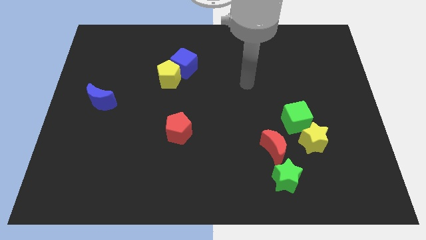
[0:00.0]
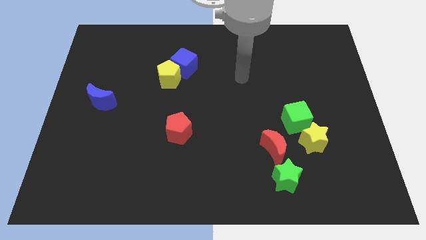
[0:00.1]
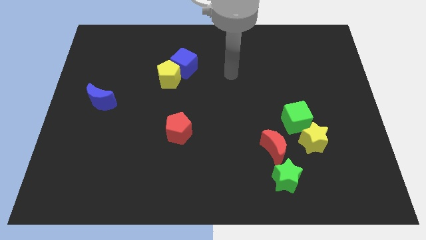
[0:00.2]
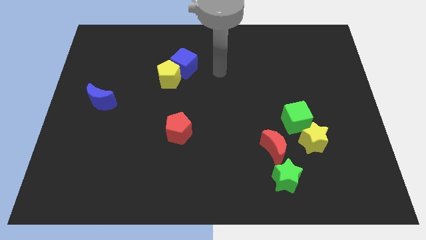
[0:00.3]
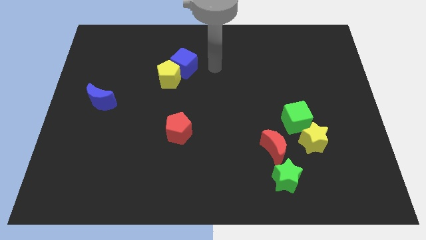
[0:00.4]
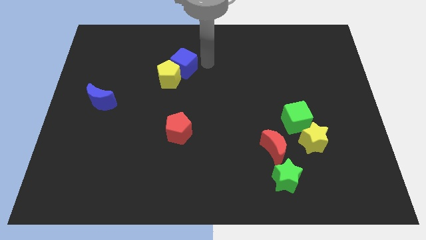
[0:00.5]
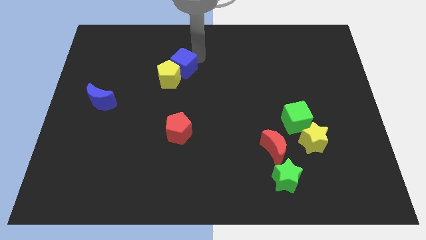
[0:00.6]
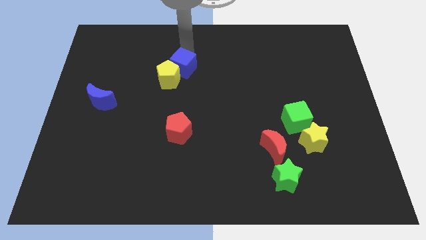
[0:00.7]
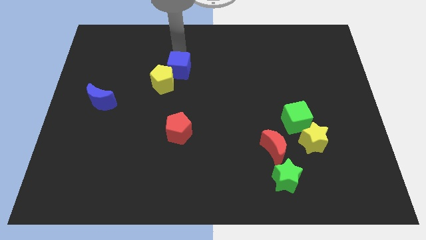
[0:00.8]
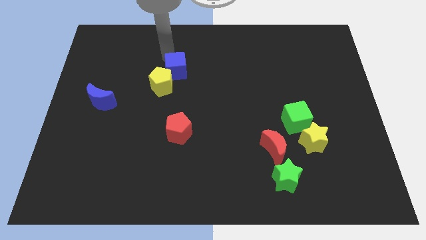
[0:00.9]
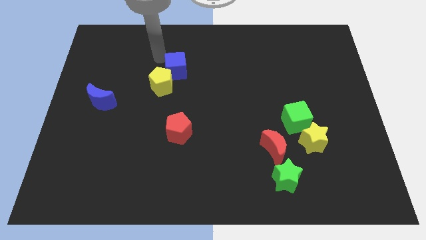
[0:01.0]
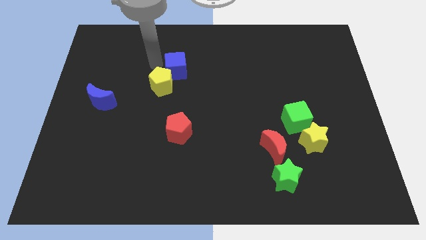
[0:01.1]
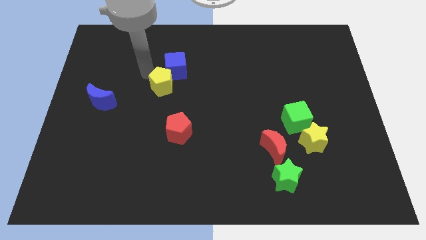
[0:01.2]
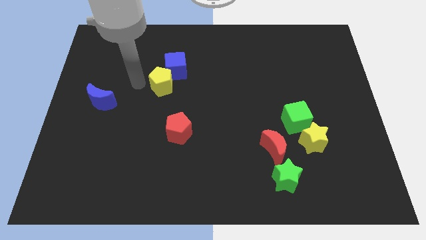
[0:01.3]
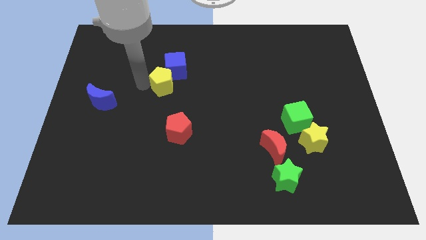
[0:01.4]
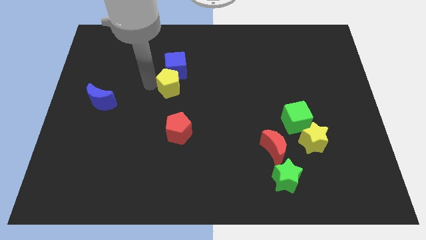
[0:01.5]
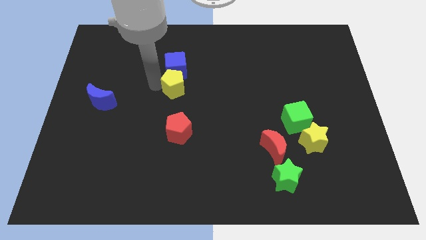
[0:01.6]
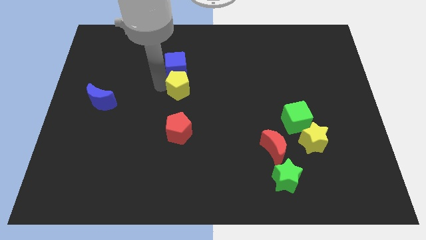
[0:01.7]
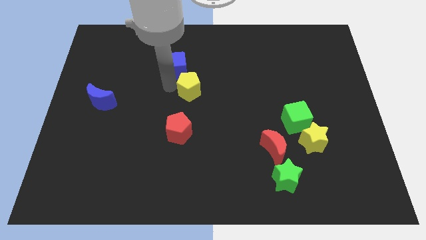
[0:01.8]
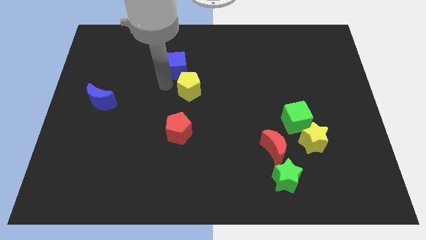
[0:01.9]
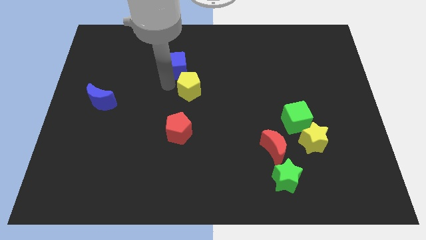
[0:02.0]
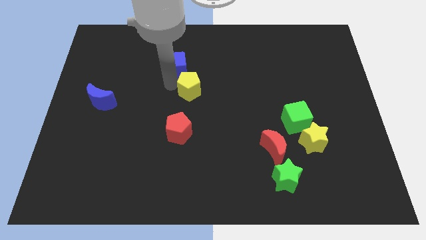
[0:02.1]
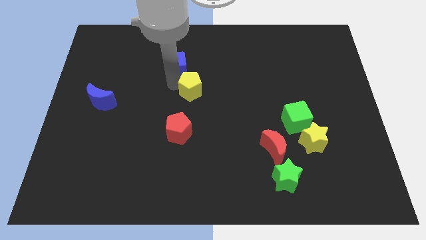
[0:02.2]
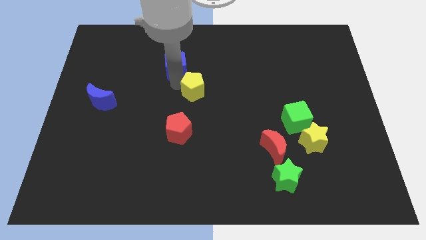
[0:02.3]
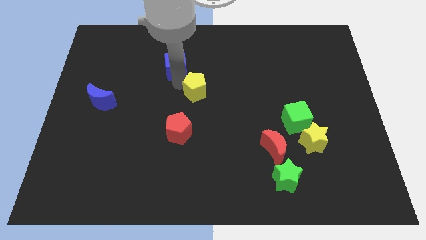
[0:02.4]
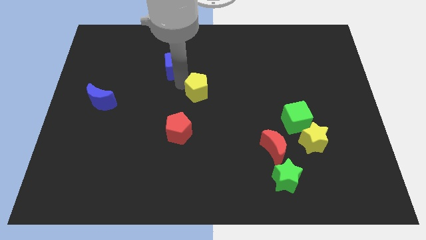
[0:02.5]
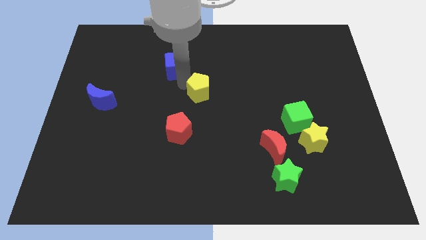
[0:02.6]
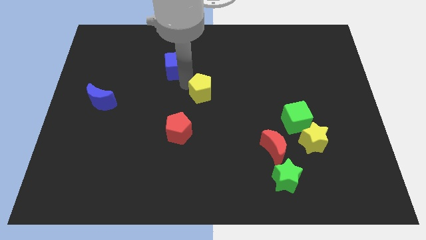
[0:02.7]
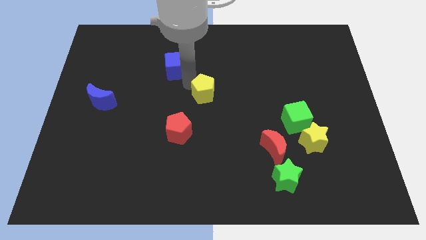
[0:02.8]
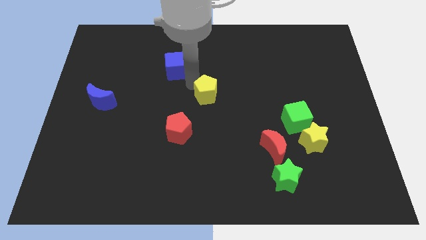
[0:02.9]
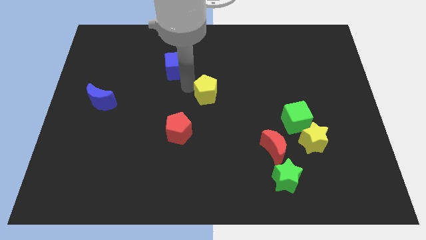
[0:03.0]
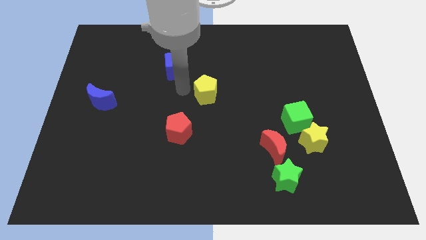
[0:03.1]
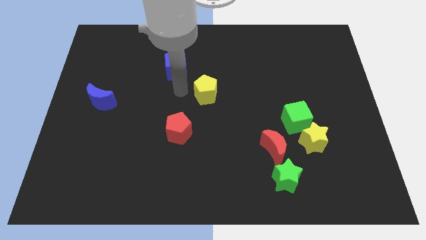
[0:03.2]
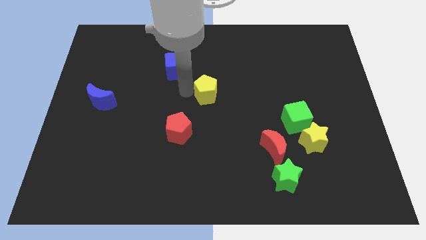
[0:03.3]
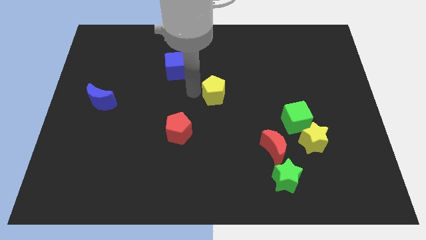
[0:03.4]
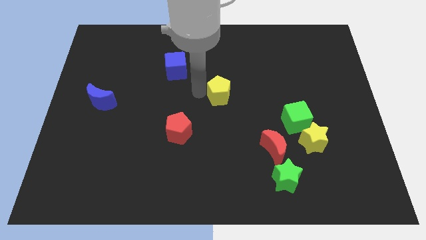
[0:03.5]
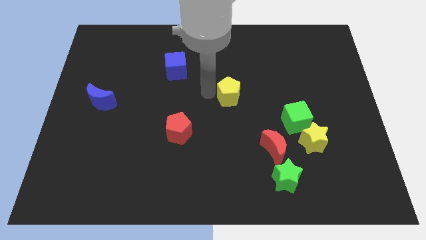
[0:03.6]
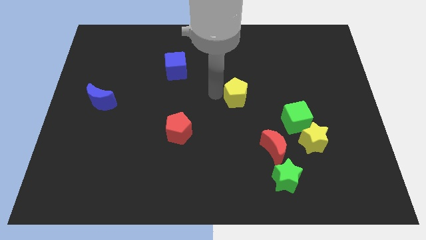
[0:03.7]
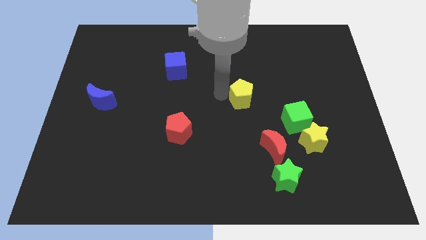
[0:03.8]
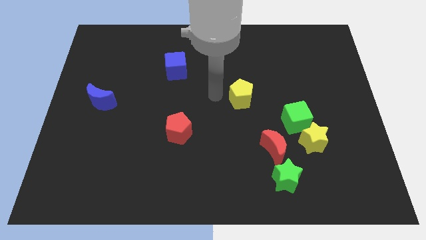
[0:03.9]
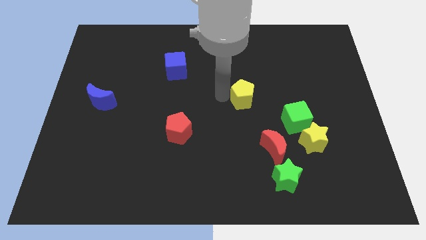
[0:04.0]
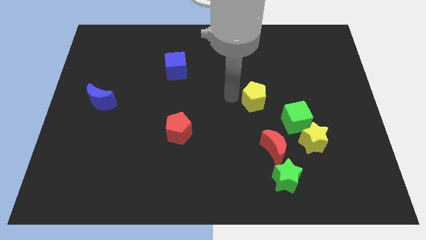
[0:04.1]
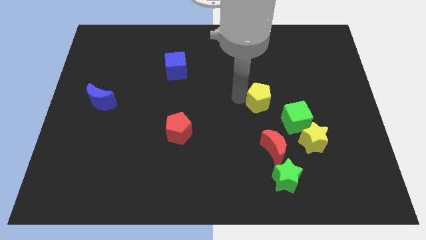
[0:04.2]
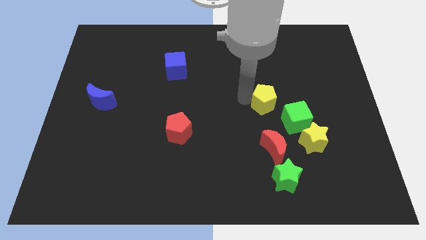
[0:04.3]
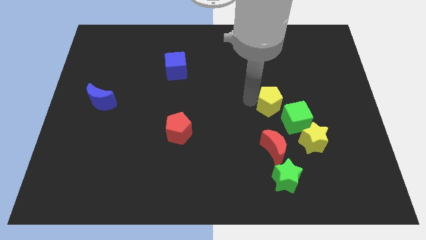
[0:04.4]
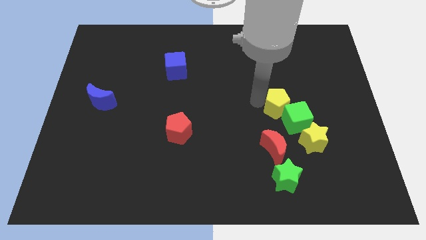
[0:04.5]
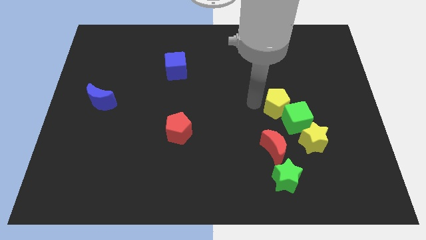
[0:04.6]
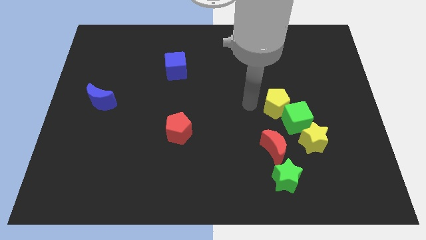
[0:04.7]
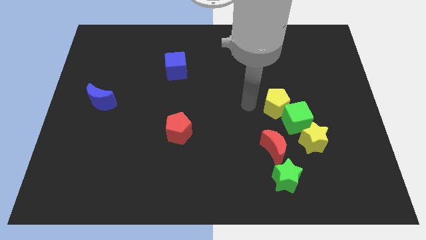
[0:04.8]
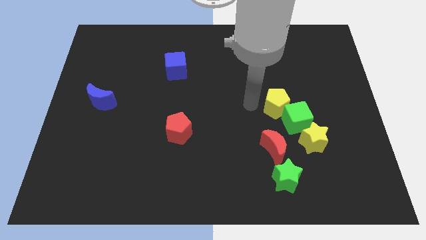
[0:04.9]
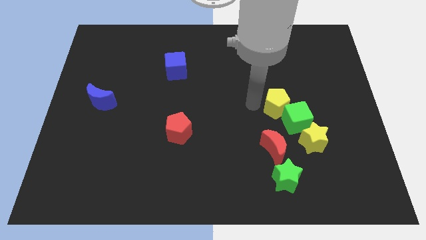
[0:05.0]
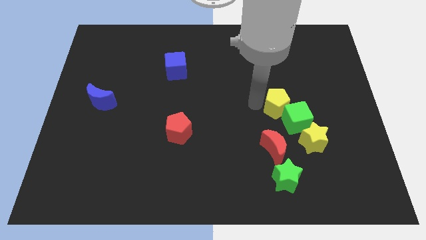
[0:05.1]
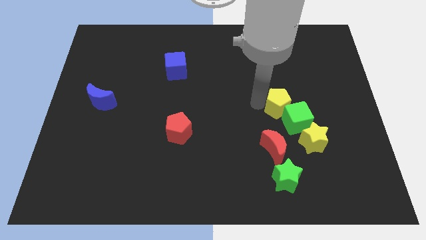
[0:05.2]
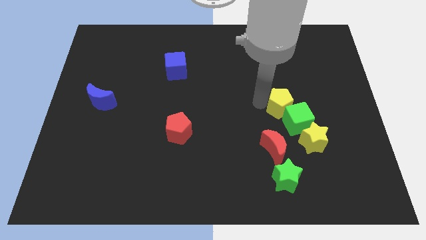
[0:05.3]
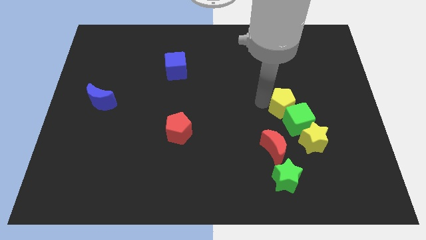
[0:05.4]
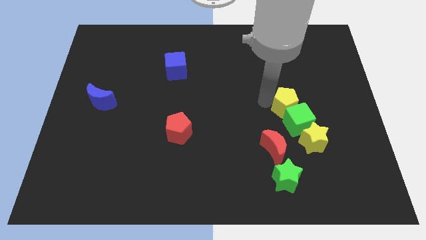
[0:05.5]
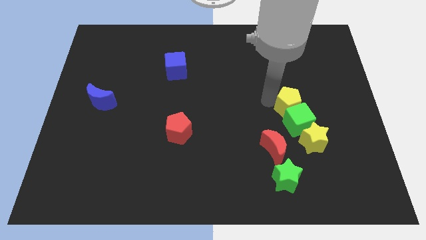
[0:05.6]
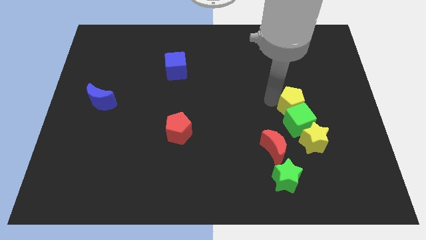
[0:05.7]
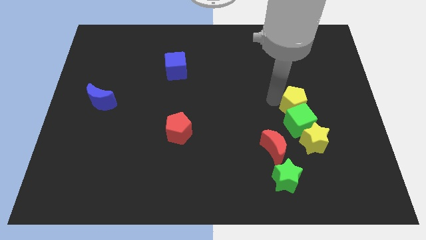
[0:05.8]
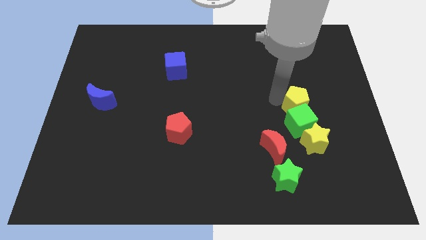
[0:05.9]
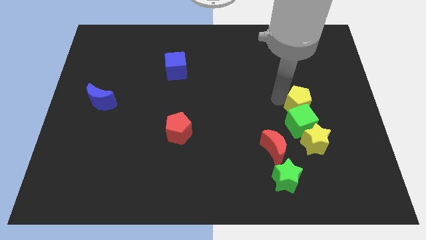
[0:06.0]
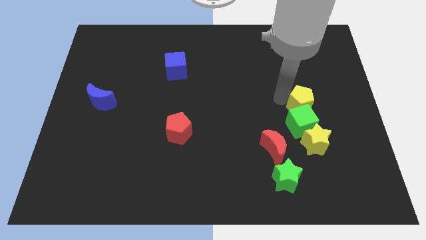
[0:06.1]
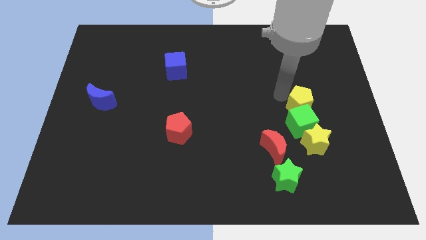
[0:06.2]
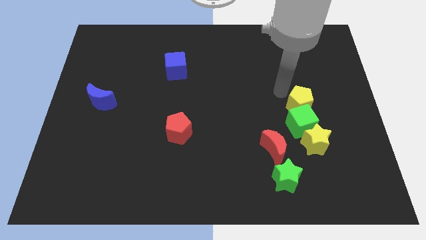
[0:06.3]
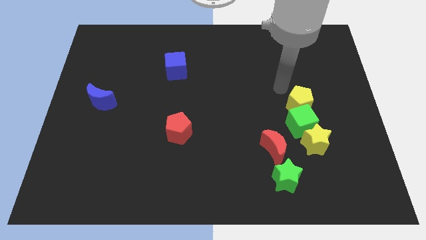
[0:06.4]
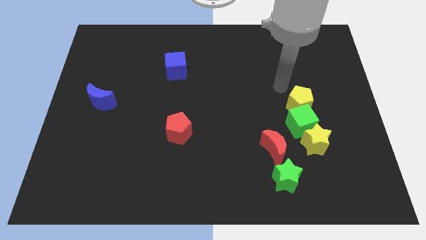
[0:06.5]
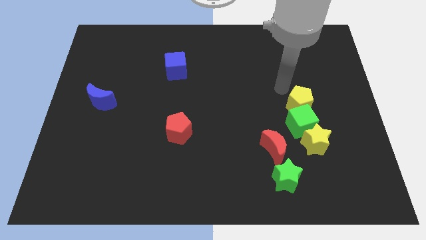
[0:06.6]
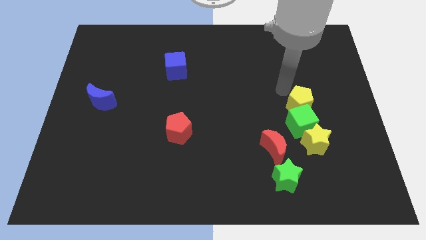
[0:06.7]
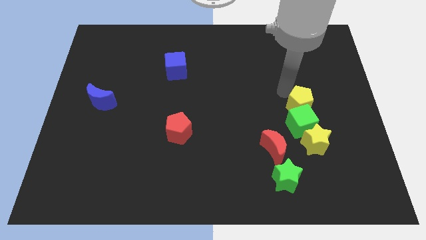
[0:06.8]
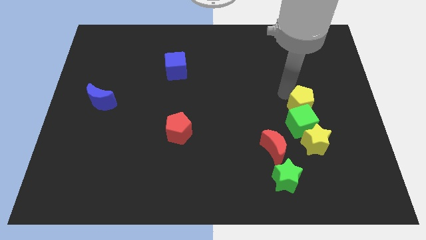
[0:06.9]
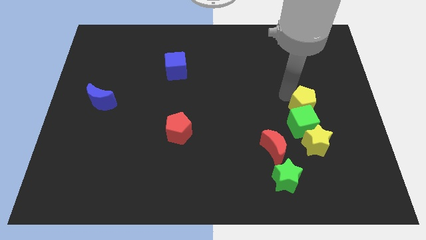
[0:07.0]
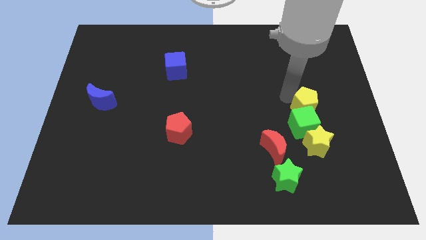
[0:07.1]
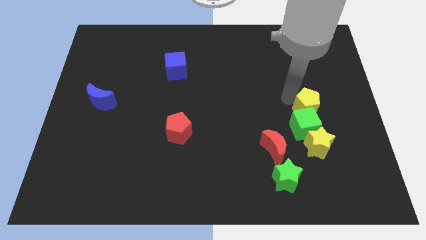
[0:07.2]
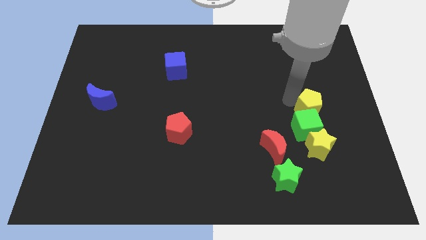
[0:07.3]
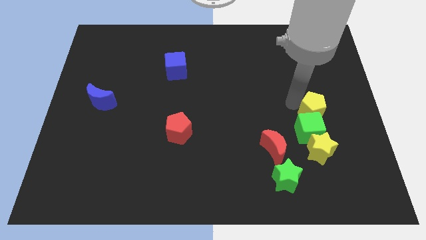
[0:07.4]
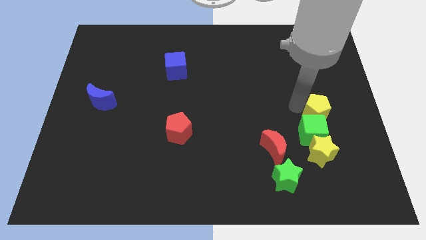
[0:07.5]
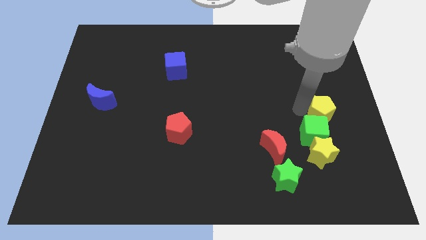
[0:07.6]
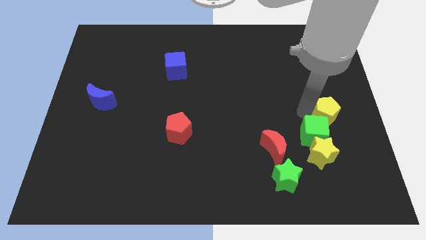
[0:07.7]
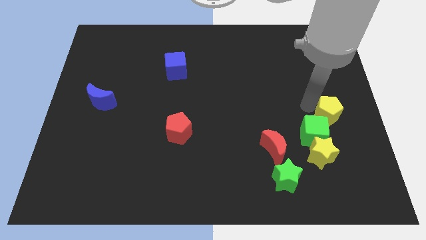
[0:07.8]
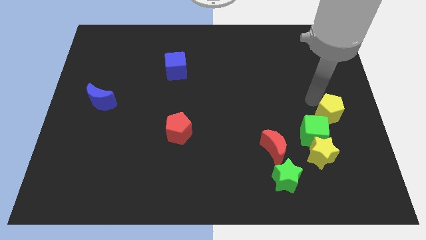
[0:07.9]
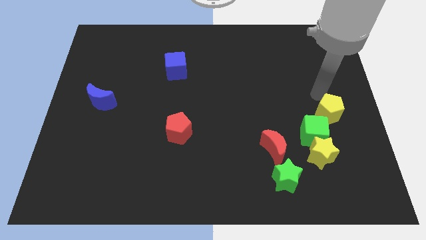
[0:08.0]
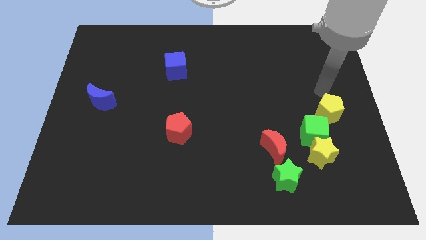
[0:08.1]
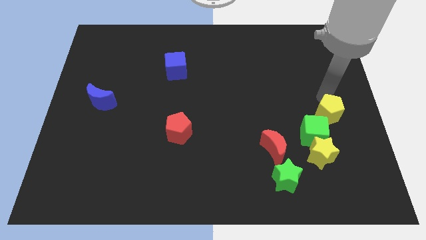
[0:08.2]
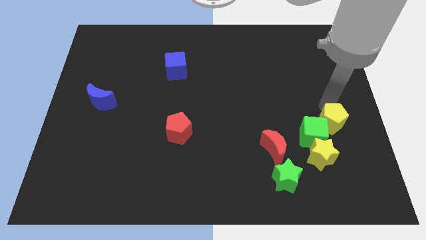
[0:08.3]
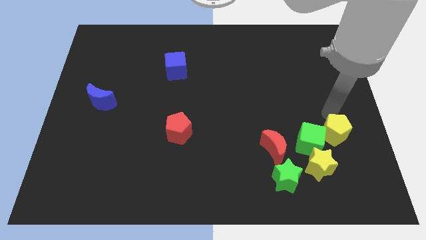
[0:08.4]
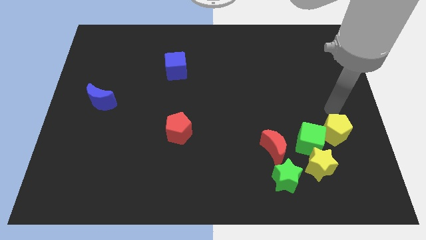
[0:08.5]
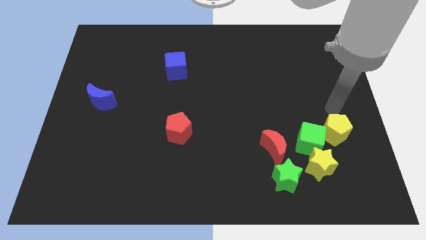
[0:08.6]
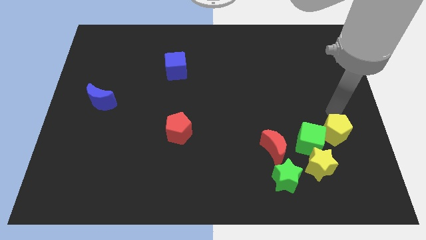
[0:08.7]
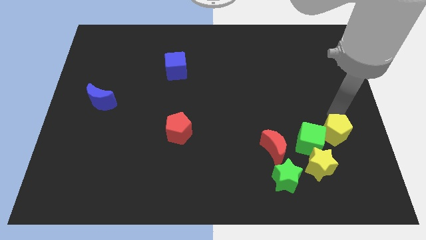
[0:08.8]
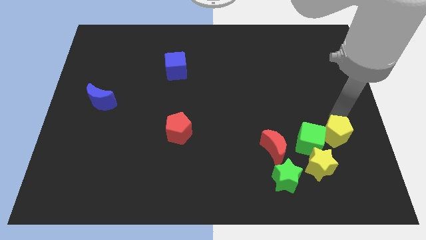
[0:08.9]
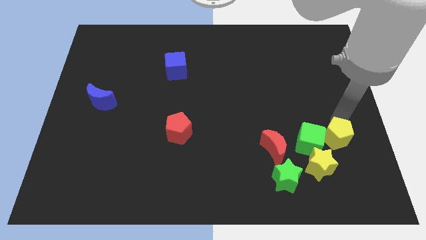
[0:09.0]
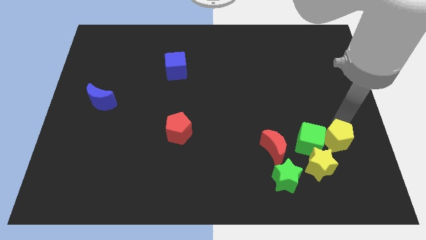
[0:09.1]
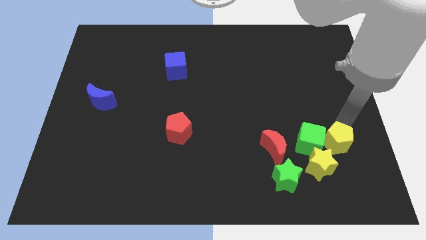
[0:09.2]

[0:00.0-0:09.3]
put the yellow pentagon to the bottom right side of the green cube
